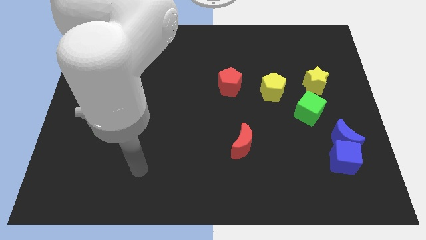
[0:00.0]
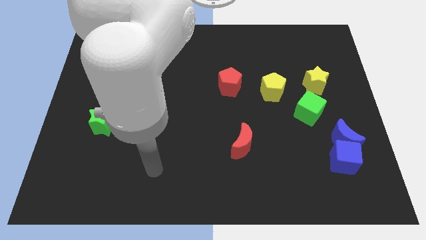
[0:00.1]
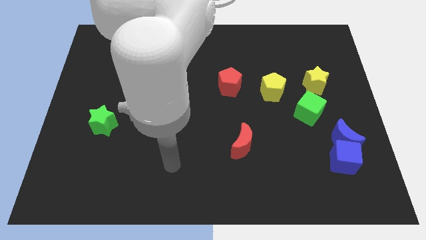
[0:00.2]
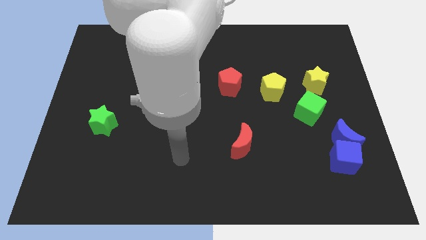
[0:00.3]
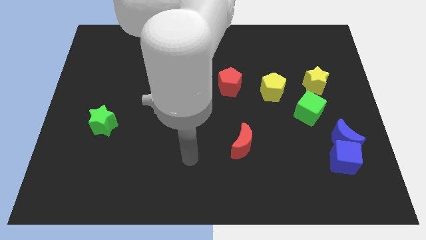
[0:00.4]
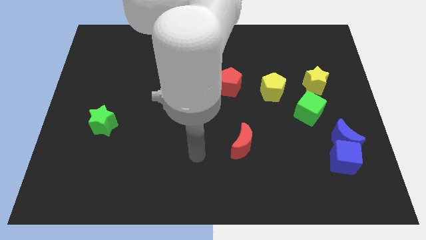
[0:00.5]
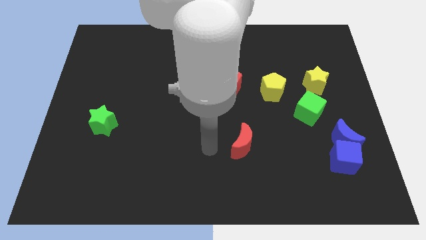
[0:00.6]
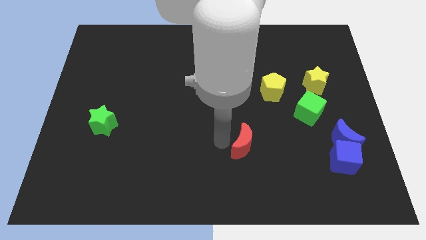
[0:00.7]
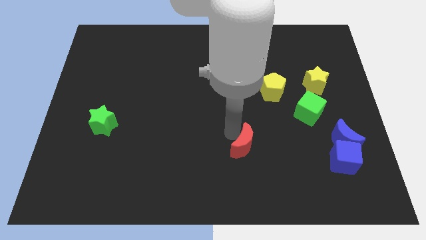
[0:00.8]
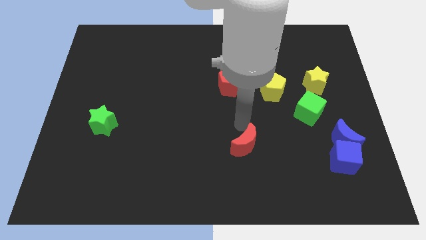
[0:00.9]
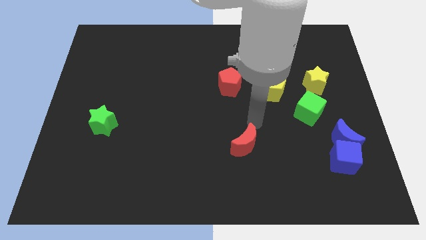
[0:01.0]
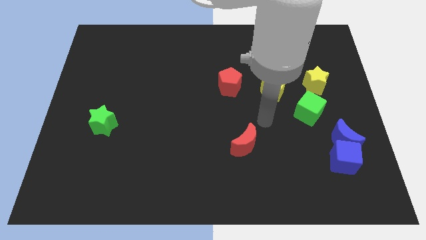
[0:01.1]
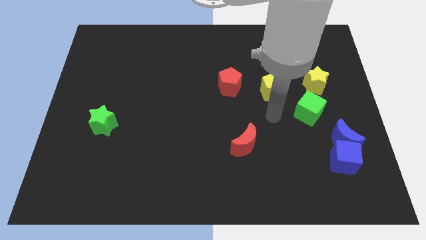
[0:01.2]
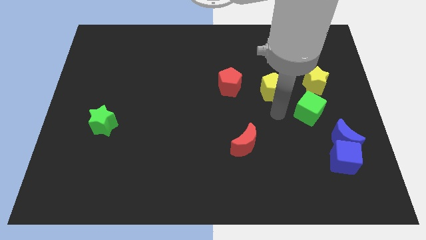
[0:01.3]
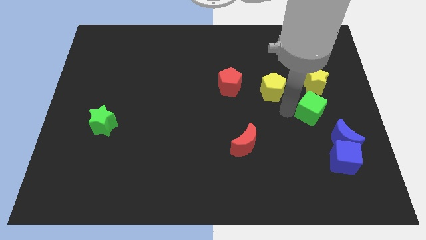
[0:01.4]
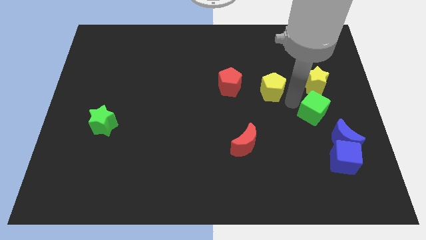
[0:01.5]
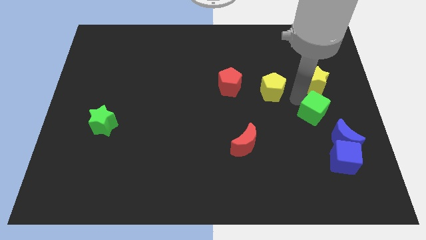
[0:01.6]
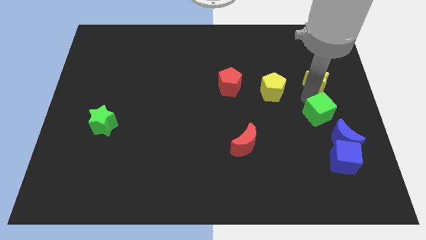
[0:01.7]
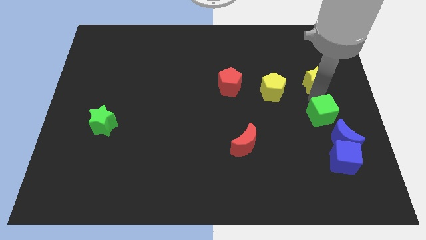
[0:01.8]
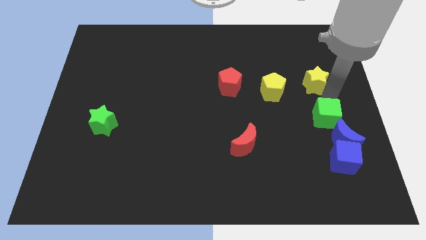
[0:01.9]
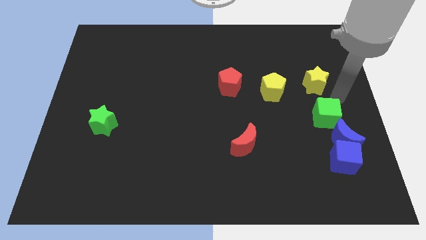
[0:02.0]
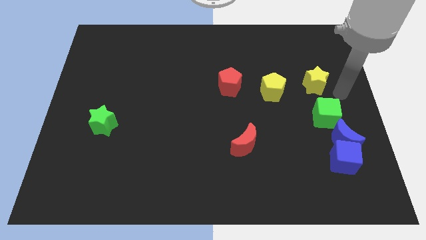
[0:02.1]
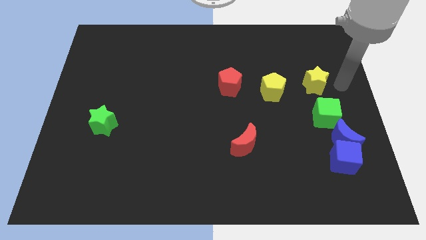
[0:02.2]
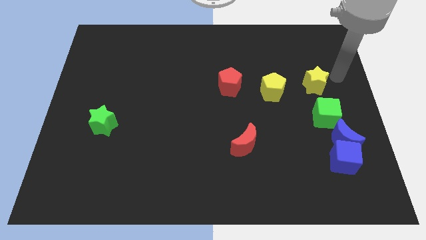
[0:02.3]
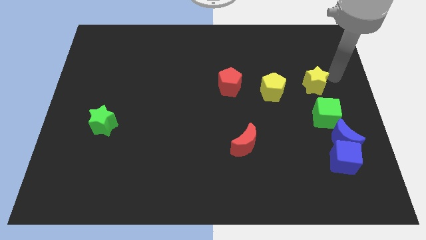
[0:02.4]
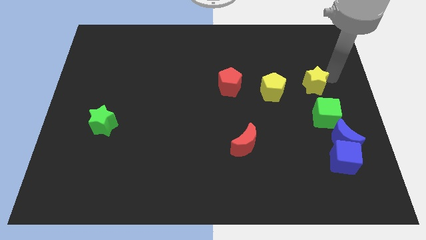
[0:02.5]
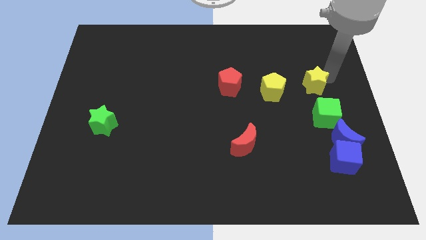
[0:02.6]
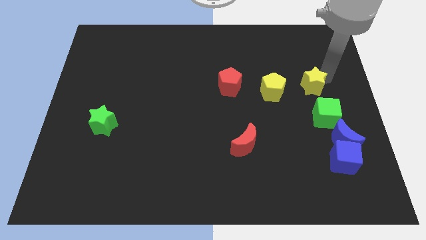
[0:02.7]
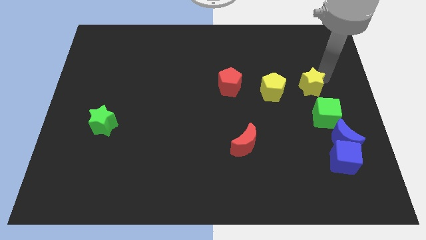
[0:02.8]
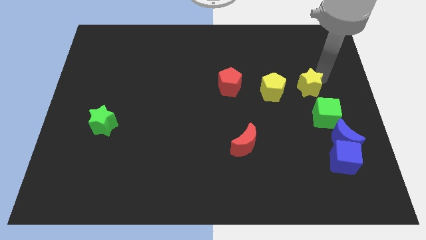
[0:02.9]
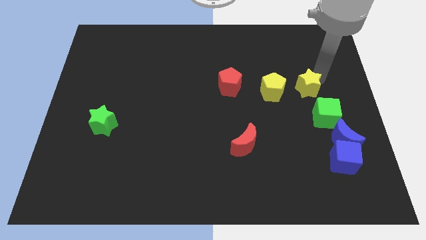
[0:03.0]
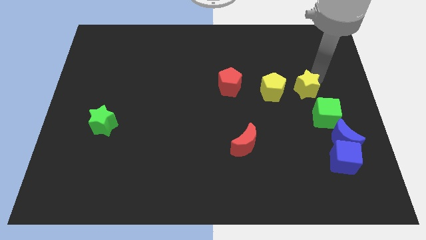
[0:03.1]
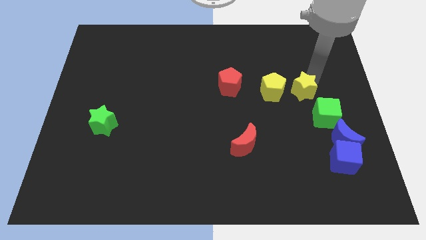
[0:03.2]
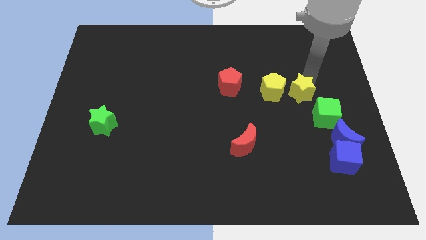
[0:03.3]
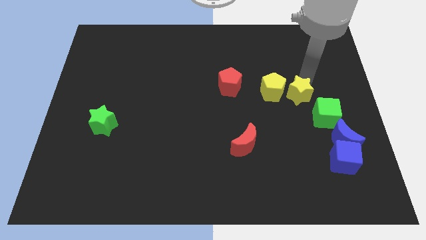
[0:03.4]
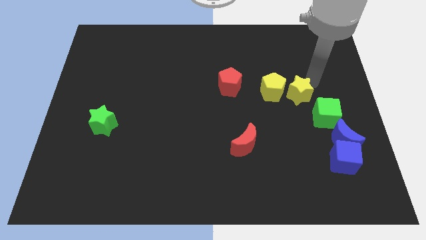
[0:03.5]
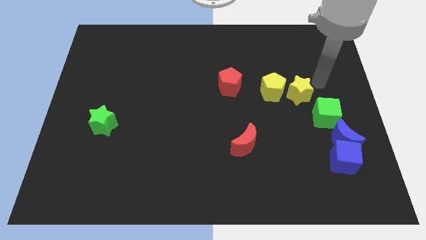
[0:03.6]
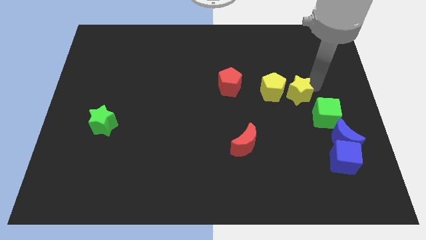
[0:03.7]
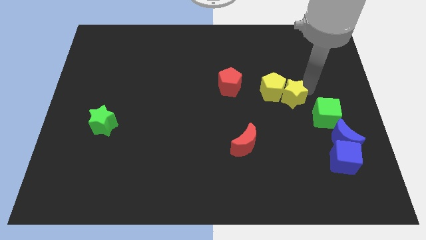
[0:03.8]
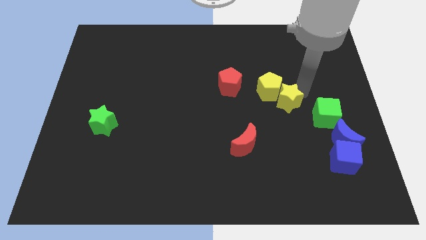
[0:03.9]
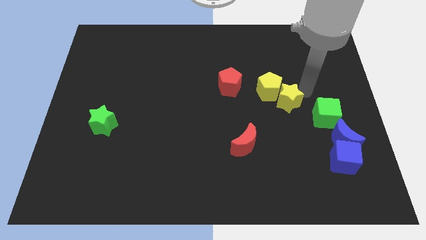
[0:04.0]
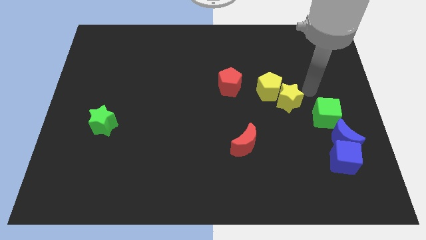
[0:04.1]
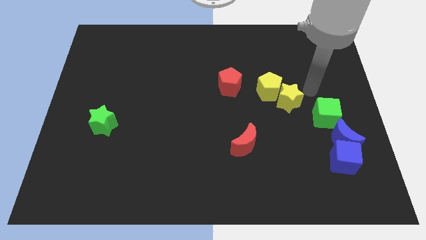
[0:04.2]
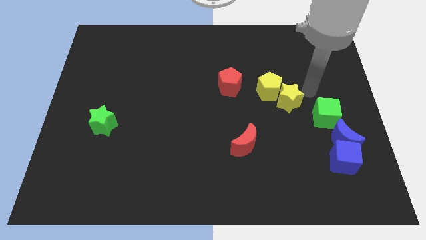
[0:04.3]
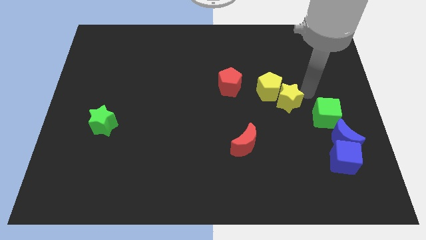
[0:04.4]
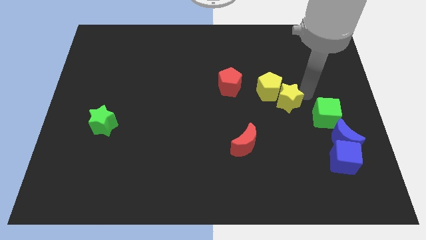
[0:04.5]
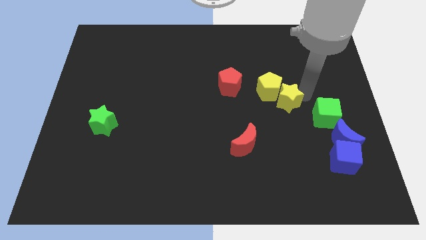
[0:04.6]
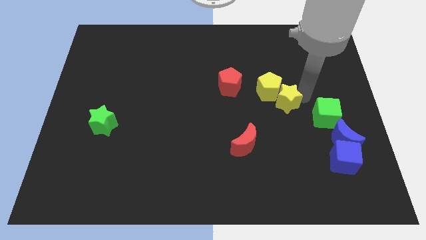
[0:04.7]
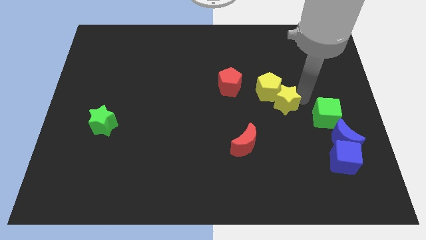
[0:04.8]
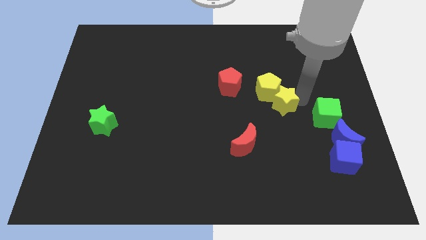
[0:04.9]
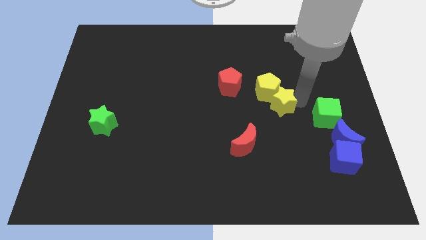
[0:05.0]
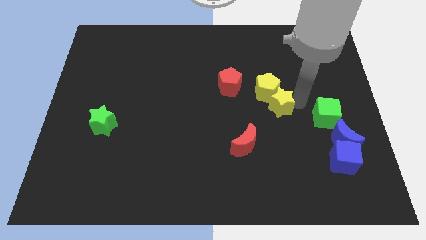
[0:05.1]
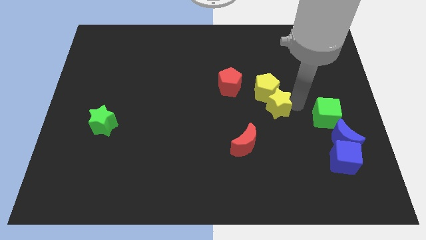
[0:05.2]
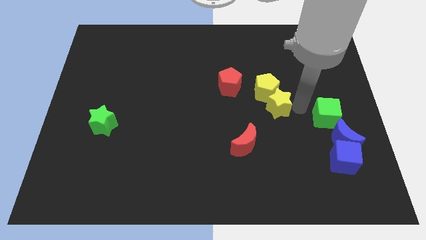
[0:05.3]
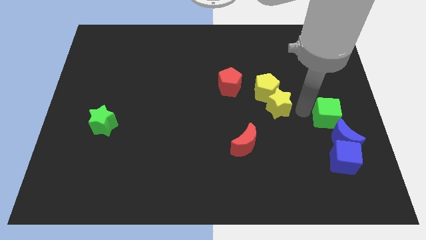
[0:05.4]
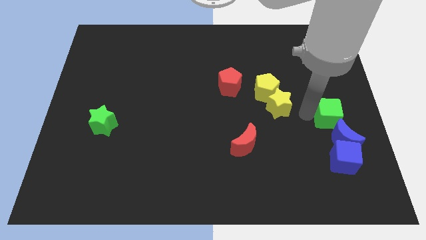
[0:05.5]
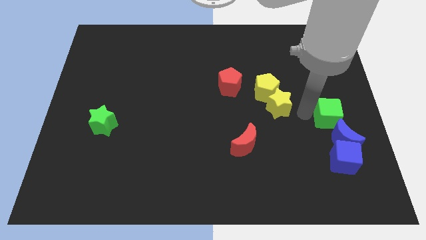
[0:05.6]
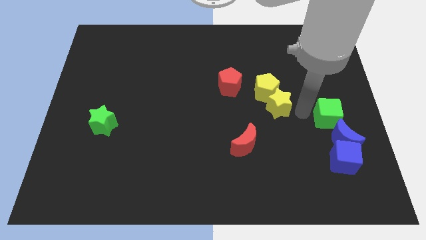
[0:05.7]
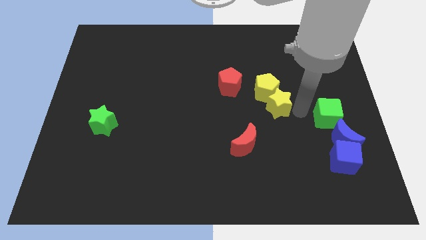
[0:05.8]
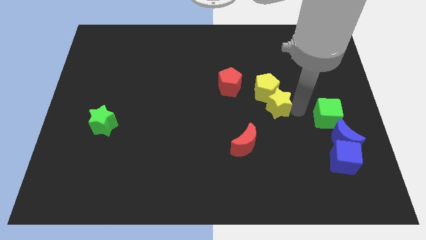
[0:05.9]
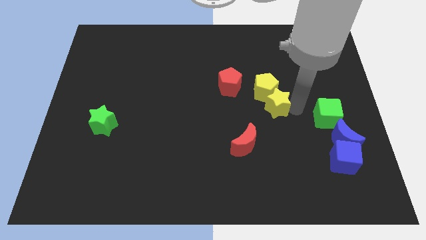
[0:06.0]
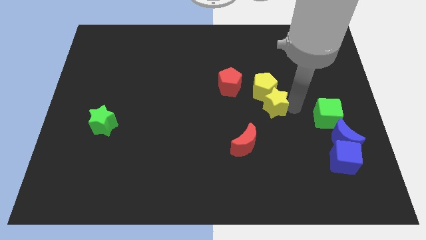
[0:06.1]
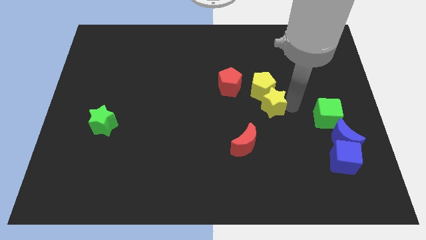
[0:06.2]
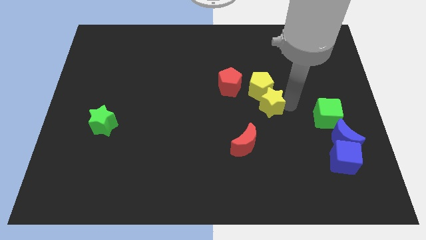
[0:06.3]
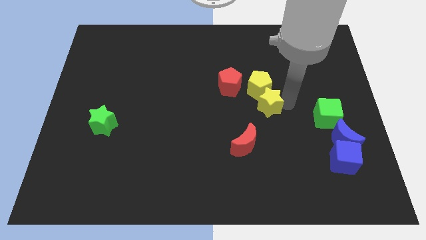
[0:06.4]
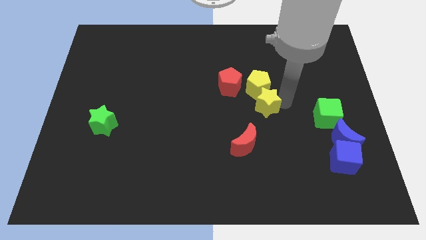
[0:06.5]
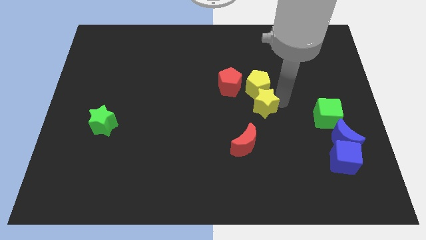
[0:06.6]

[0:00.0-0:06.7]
put the yellow star to the middle of the board

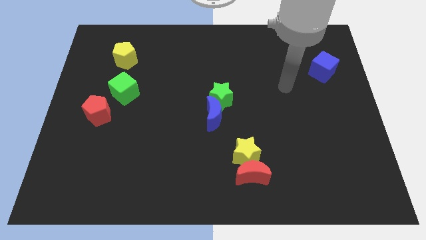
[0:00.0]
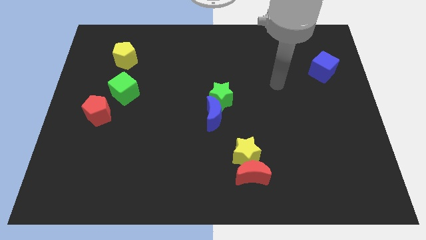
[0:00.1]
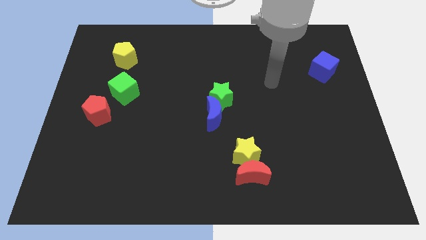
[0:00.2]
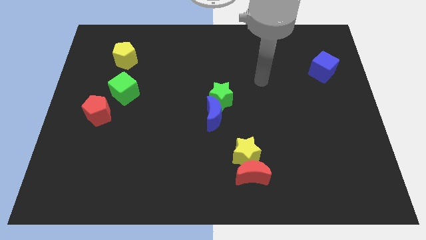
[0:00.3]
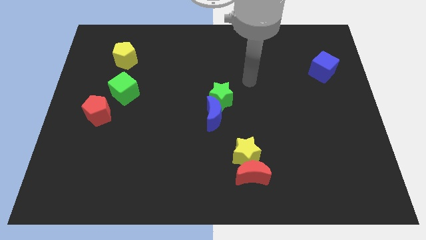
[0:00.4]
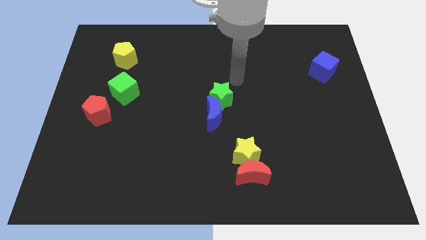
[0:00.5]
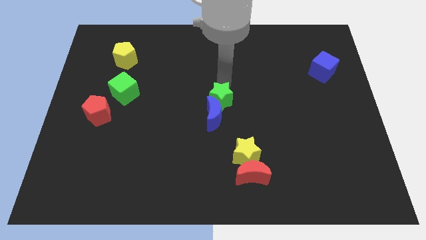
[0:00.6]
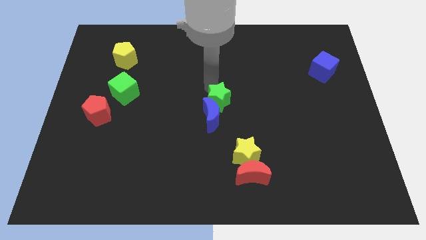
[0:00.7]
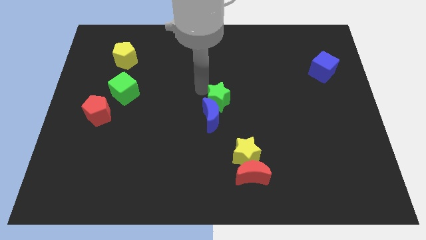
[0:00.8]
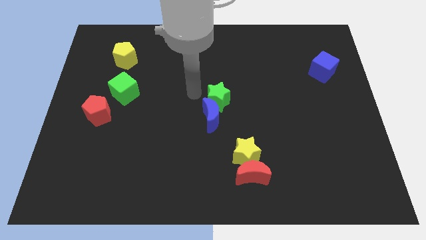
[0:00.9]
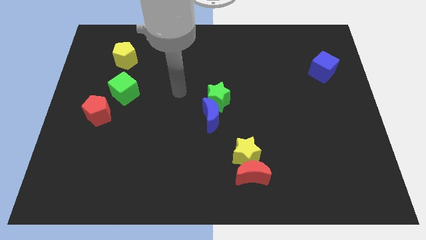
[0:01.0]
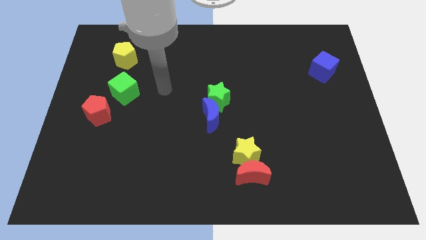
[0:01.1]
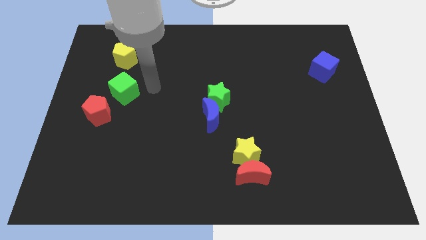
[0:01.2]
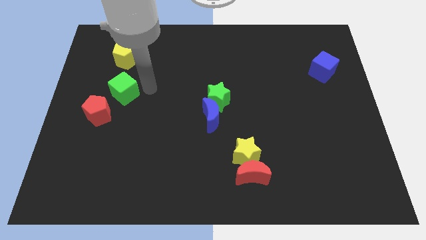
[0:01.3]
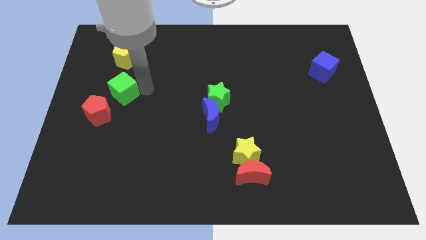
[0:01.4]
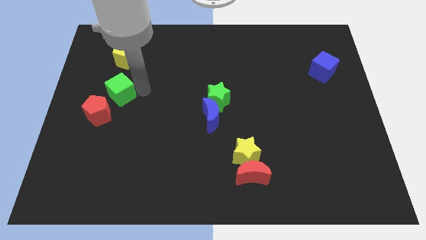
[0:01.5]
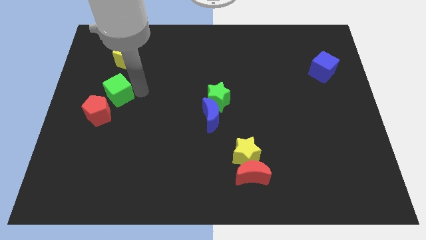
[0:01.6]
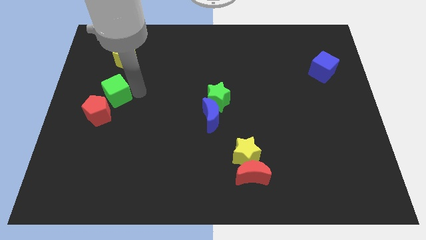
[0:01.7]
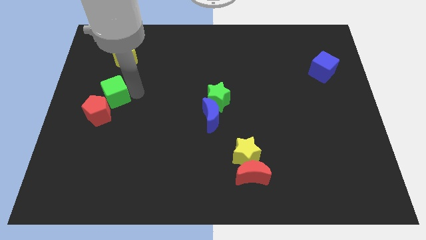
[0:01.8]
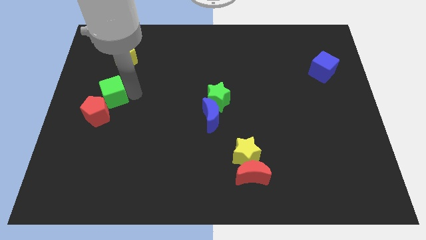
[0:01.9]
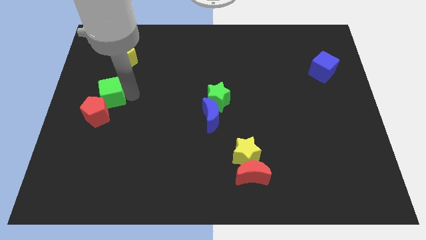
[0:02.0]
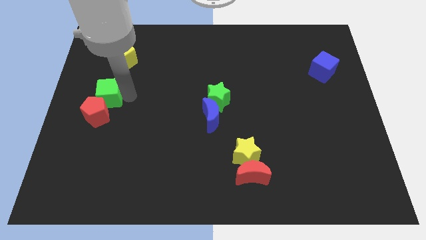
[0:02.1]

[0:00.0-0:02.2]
push the green cube to the left side of the board
